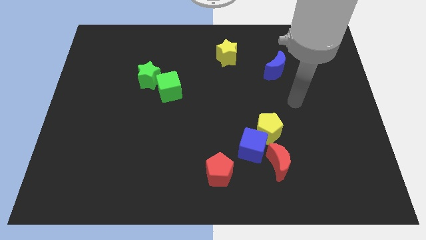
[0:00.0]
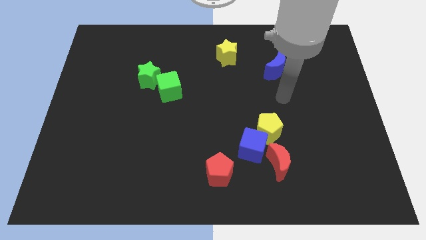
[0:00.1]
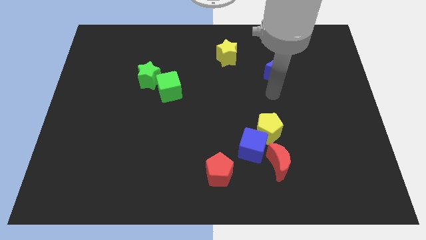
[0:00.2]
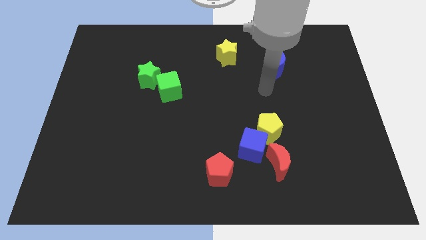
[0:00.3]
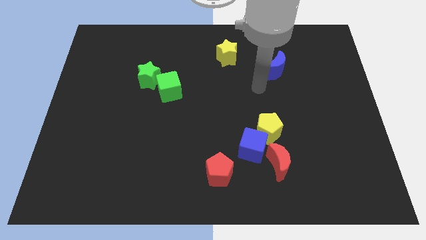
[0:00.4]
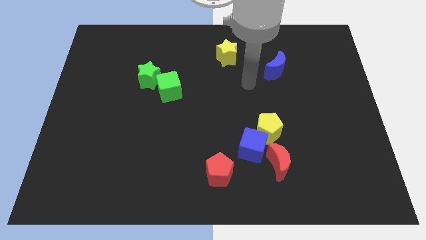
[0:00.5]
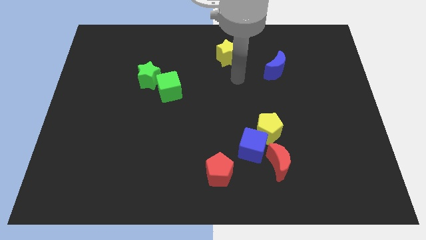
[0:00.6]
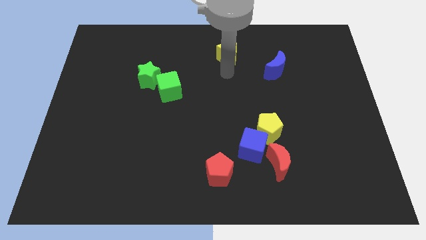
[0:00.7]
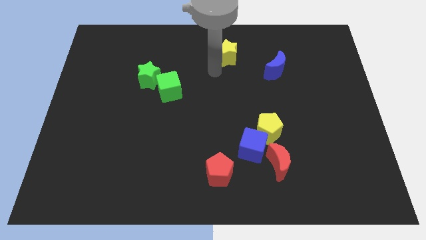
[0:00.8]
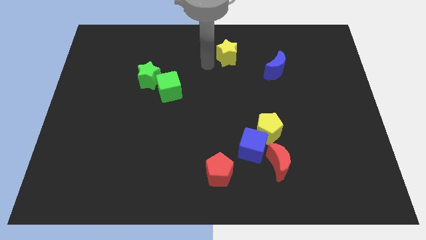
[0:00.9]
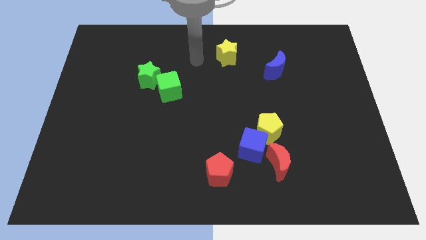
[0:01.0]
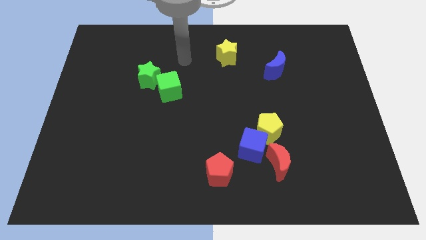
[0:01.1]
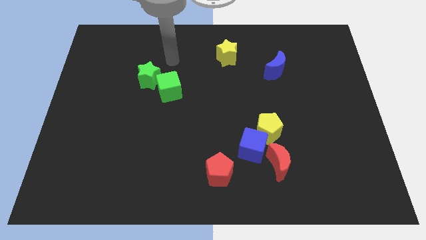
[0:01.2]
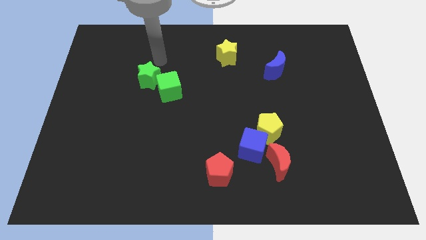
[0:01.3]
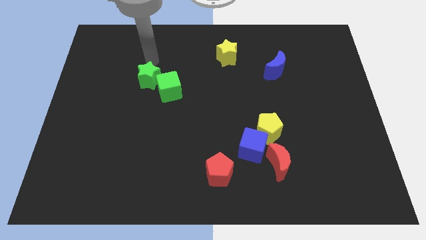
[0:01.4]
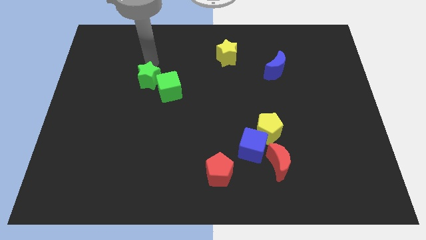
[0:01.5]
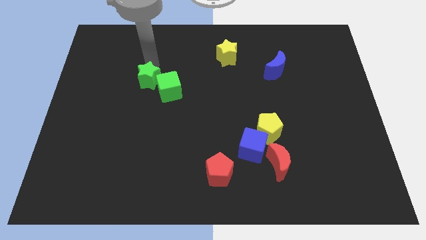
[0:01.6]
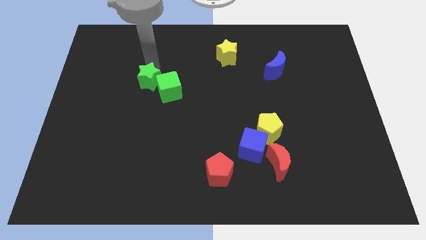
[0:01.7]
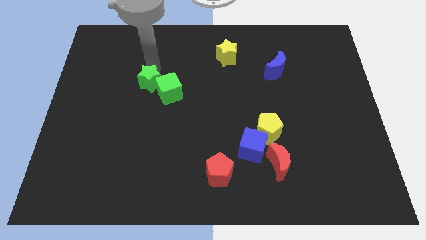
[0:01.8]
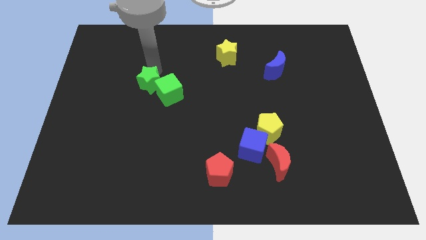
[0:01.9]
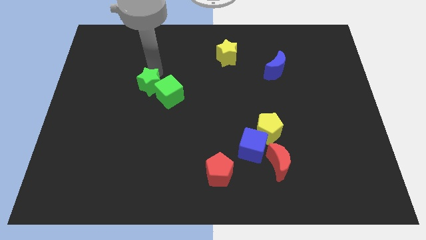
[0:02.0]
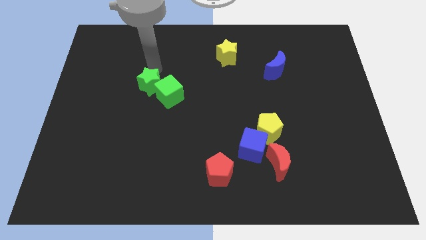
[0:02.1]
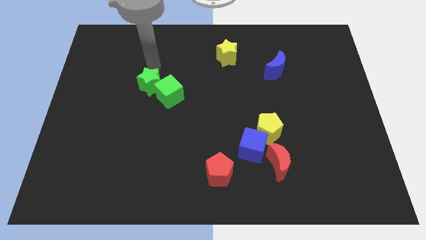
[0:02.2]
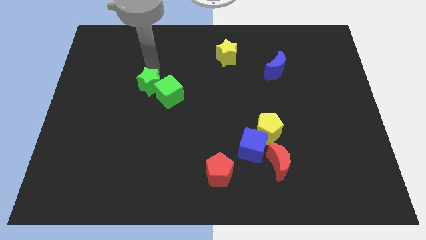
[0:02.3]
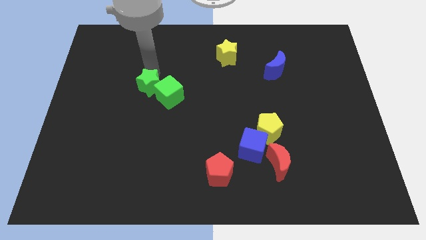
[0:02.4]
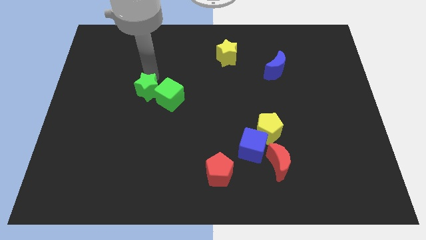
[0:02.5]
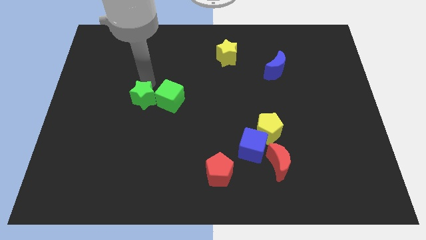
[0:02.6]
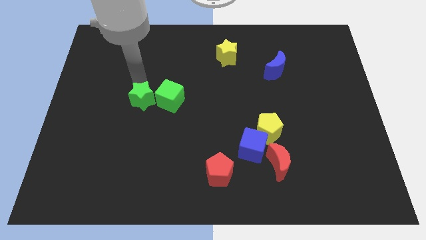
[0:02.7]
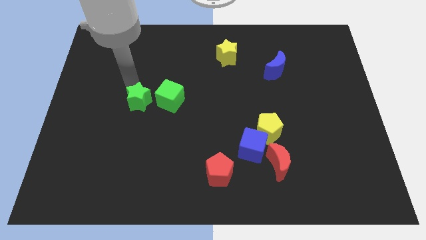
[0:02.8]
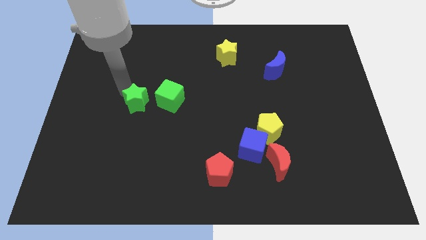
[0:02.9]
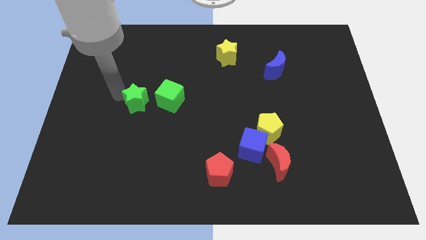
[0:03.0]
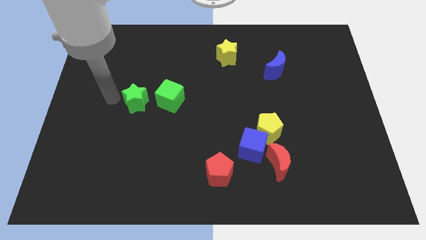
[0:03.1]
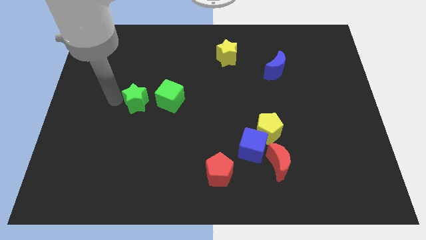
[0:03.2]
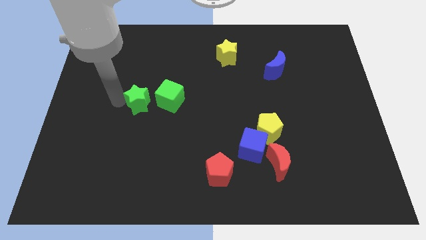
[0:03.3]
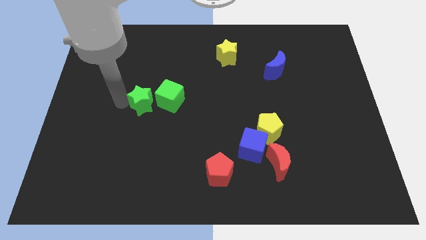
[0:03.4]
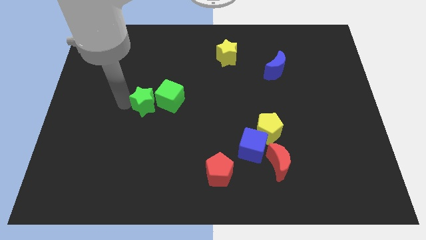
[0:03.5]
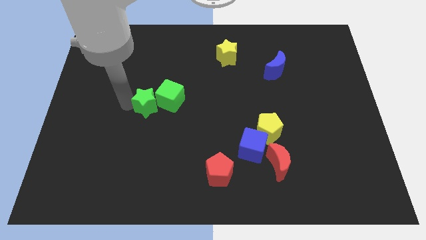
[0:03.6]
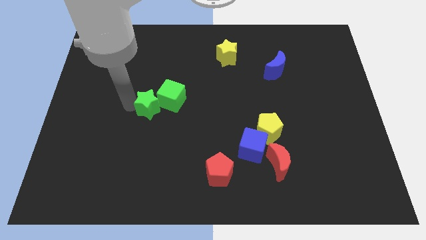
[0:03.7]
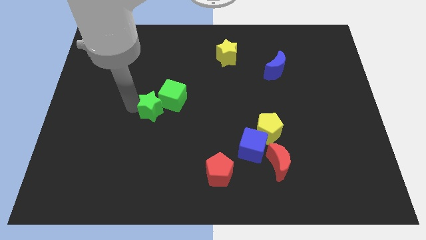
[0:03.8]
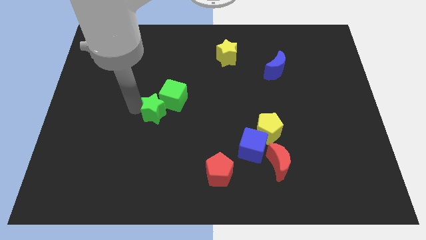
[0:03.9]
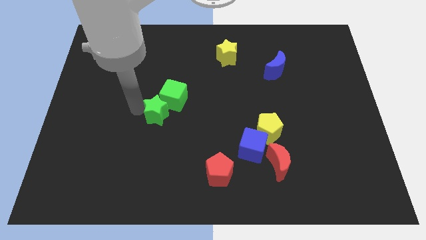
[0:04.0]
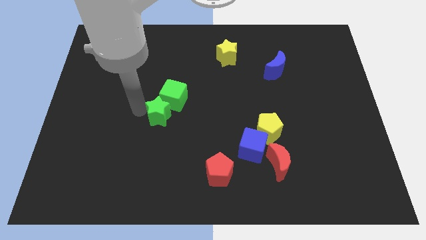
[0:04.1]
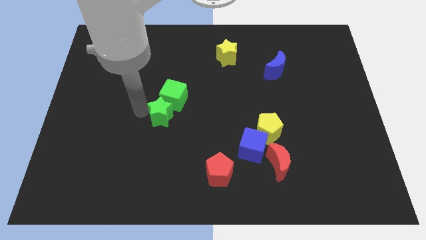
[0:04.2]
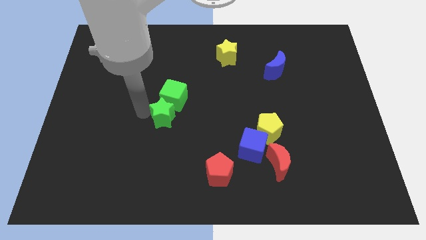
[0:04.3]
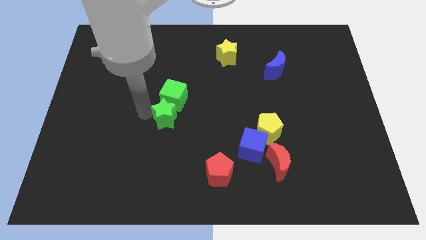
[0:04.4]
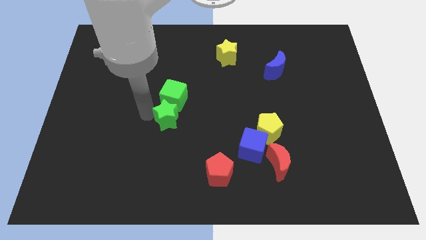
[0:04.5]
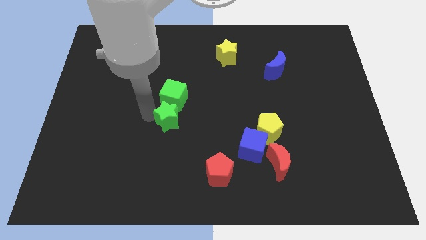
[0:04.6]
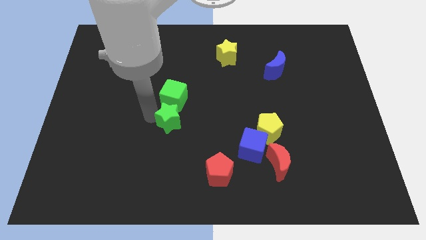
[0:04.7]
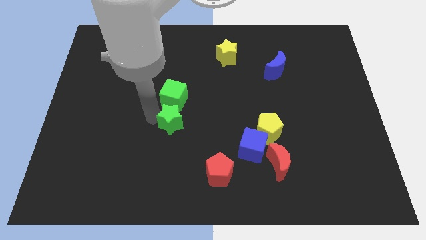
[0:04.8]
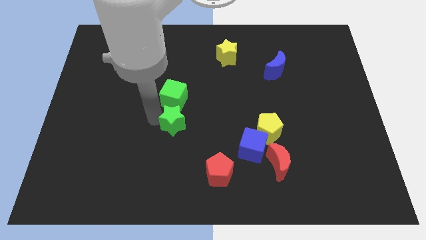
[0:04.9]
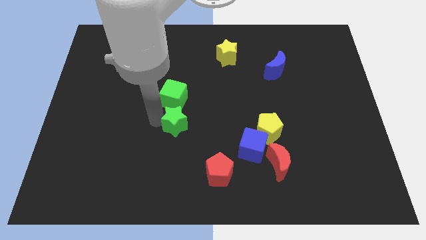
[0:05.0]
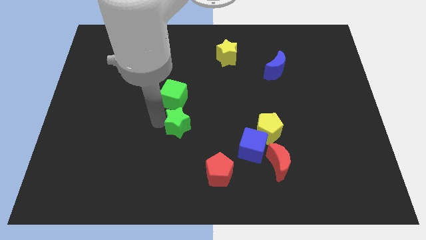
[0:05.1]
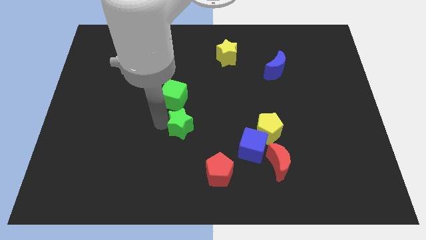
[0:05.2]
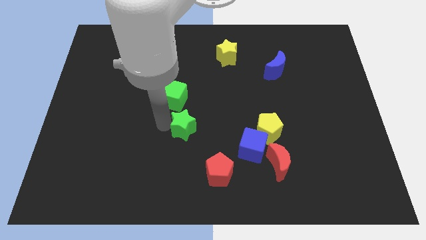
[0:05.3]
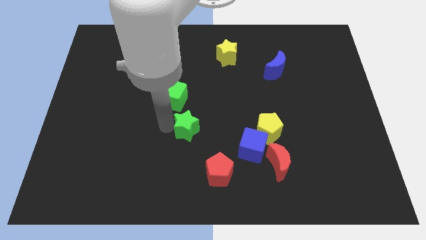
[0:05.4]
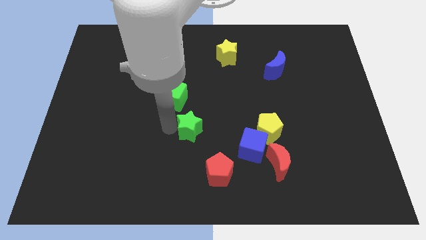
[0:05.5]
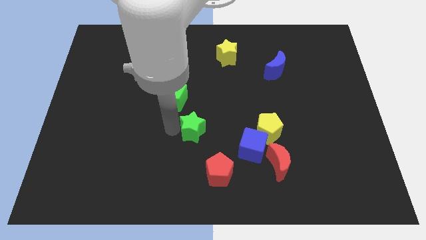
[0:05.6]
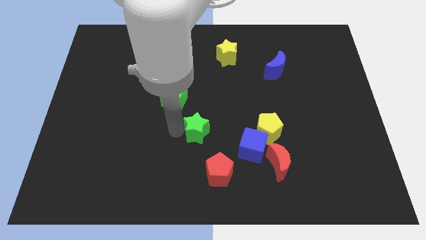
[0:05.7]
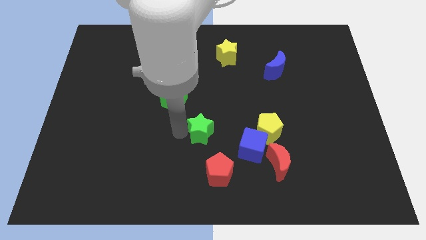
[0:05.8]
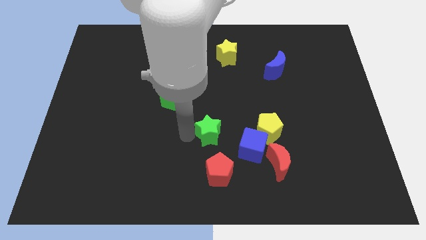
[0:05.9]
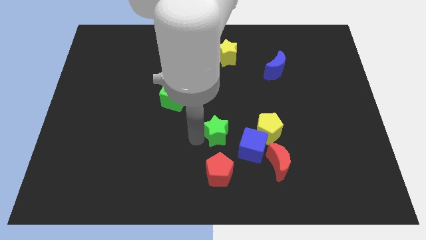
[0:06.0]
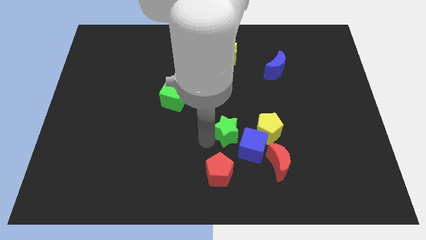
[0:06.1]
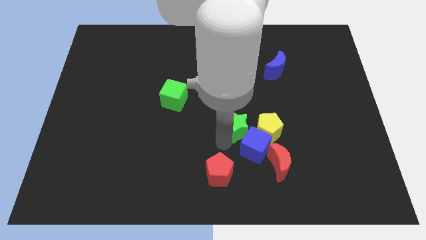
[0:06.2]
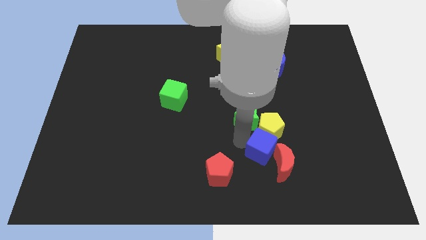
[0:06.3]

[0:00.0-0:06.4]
put the green star to the yellow pentagon

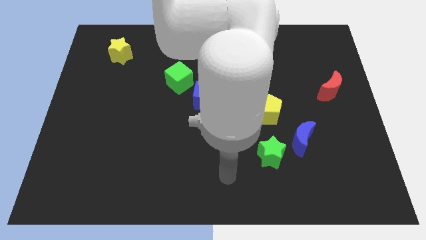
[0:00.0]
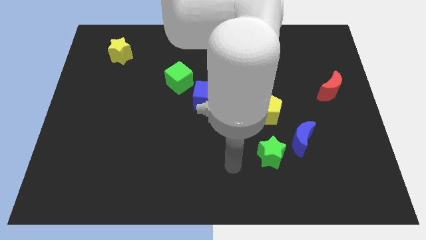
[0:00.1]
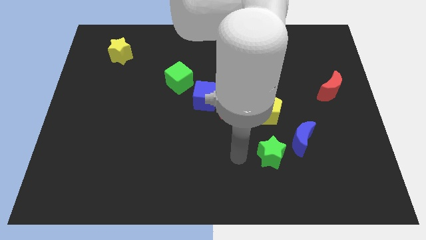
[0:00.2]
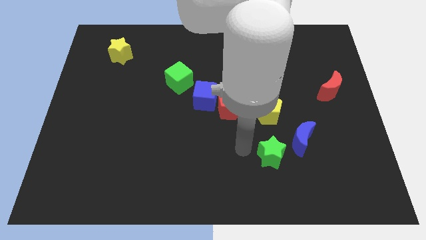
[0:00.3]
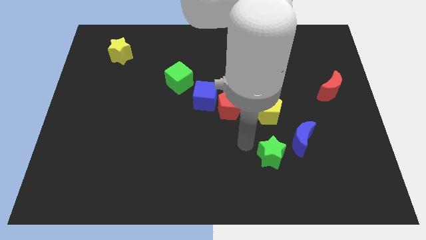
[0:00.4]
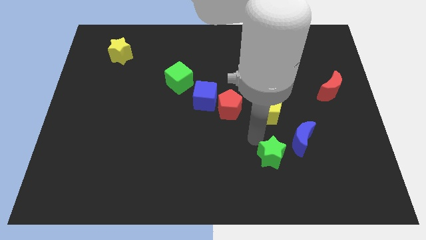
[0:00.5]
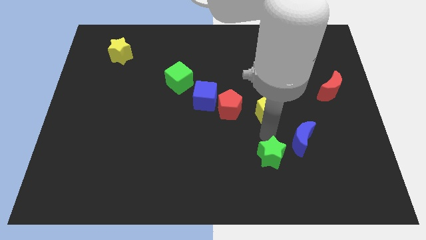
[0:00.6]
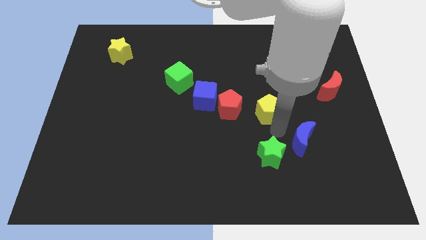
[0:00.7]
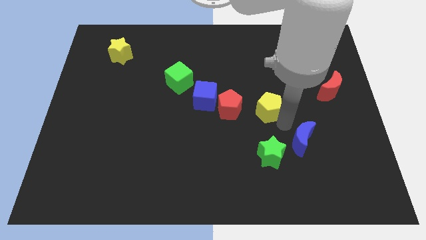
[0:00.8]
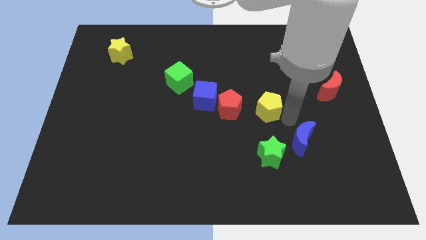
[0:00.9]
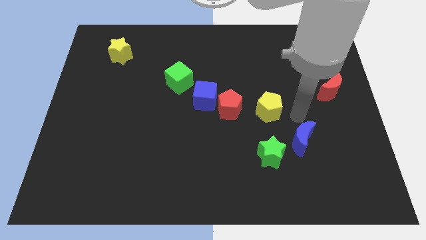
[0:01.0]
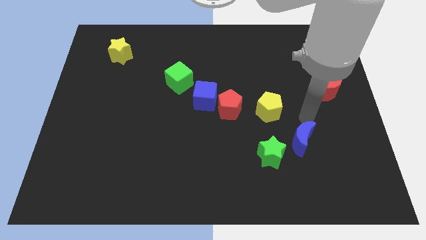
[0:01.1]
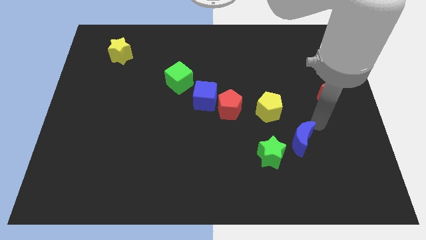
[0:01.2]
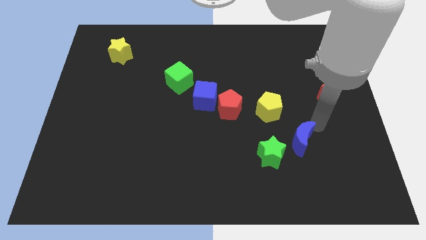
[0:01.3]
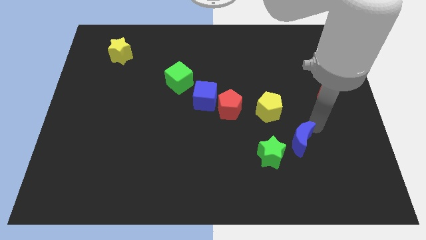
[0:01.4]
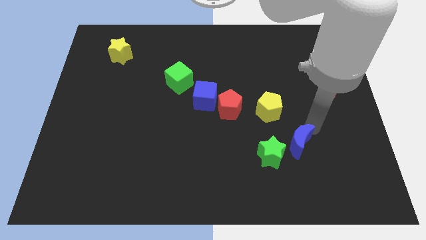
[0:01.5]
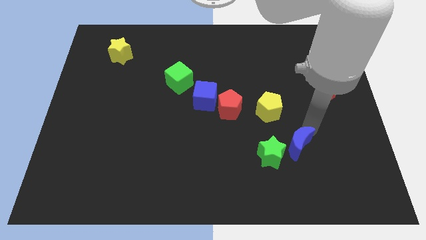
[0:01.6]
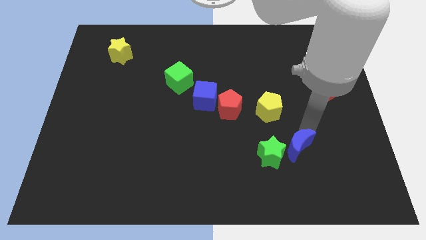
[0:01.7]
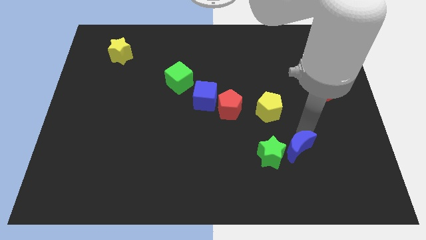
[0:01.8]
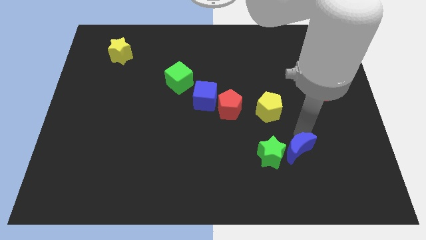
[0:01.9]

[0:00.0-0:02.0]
move the blue moon towards the green star
